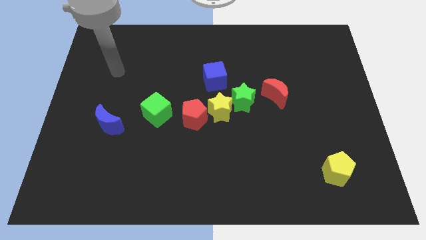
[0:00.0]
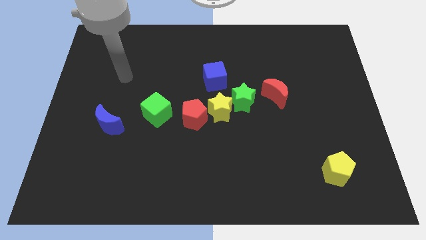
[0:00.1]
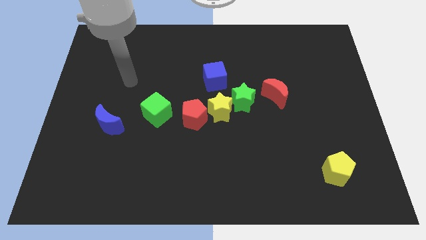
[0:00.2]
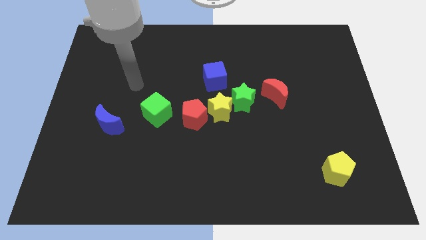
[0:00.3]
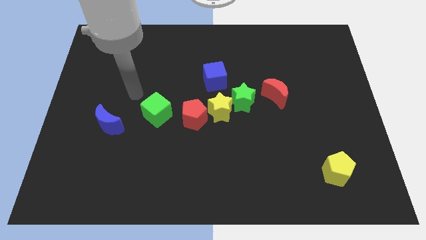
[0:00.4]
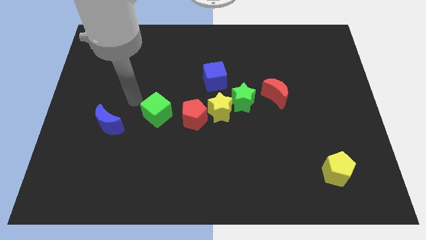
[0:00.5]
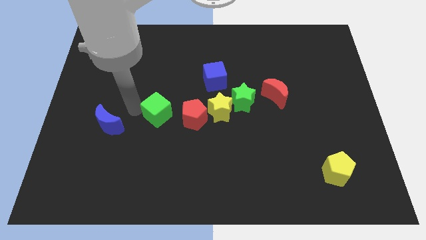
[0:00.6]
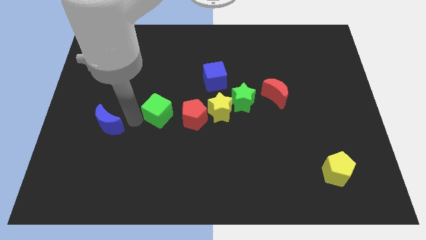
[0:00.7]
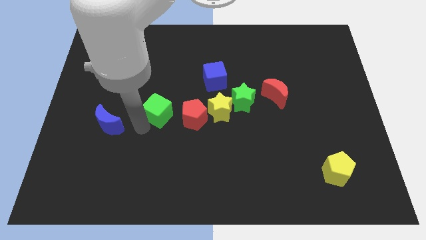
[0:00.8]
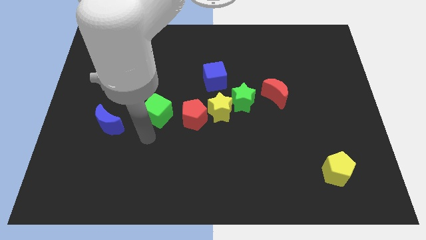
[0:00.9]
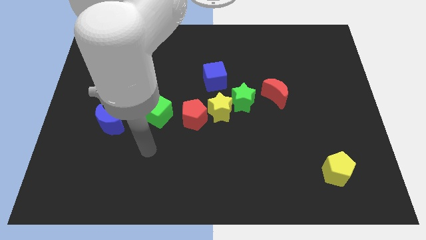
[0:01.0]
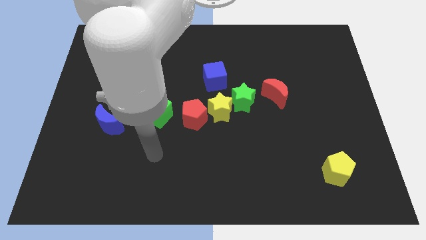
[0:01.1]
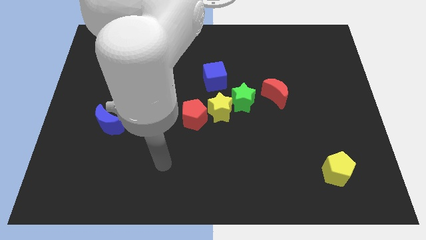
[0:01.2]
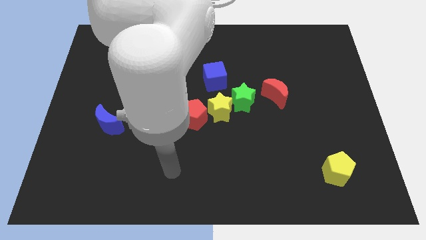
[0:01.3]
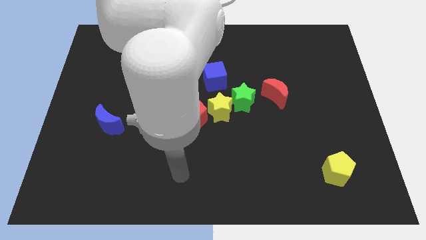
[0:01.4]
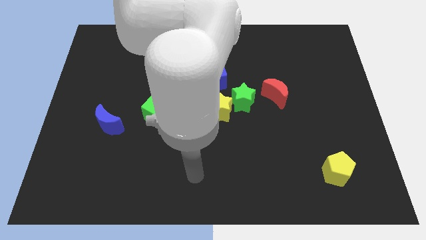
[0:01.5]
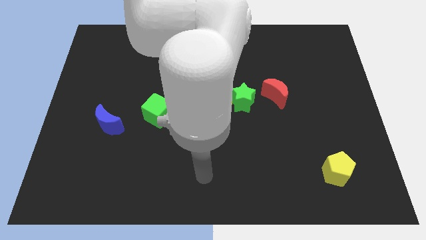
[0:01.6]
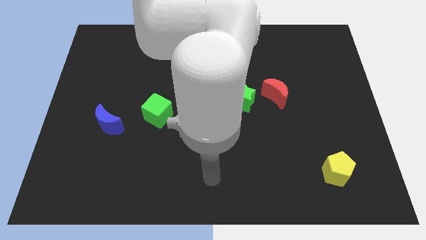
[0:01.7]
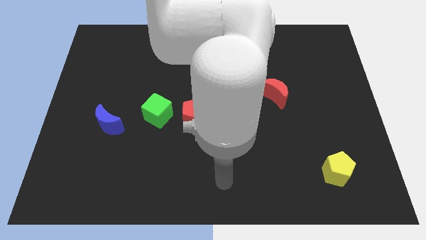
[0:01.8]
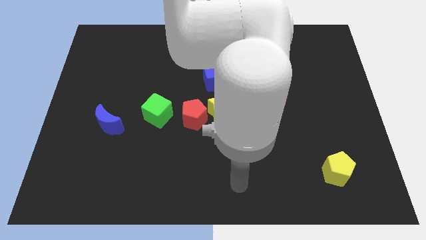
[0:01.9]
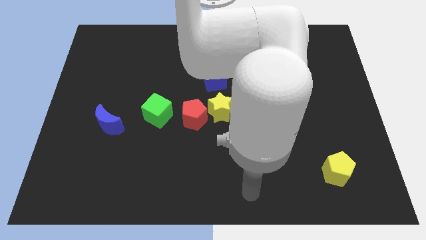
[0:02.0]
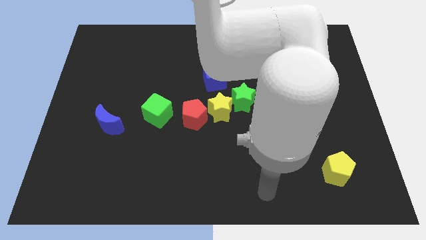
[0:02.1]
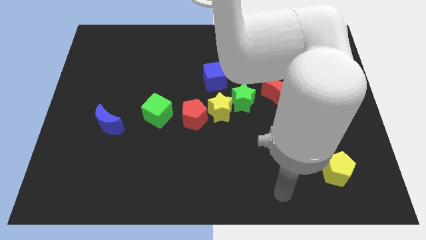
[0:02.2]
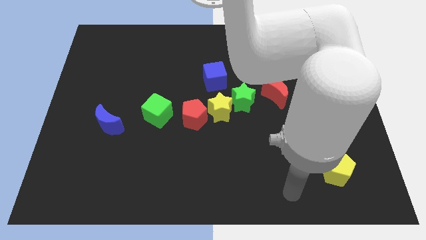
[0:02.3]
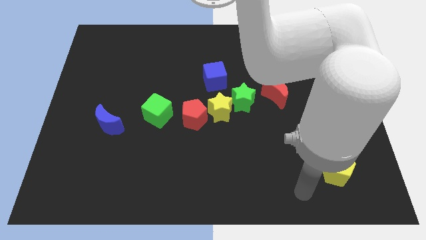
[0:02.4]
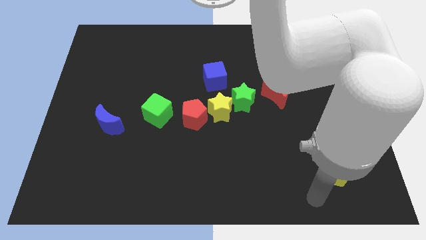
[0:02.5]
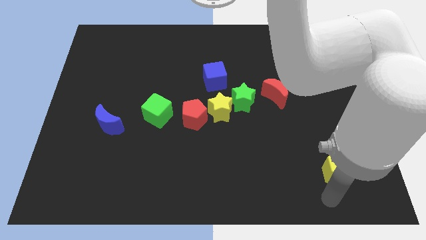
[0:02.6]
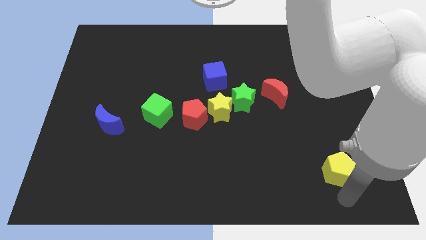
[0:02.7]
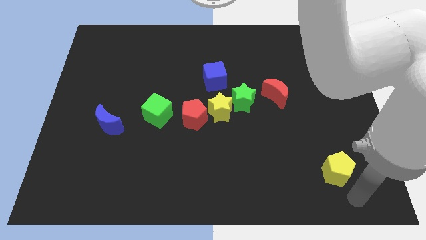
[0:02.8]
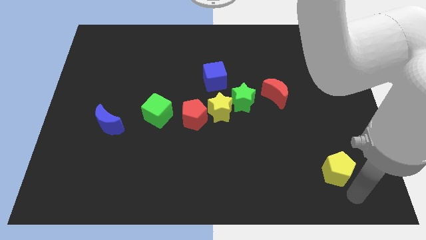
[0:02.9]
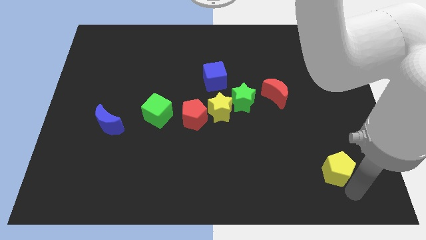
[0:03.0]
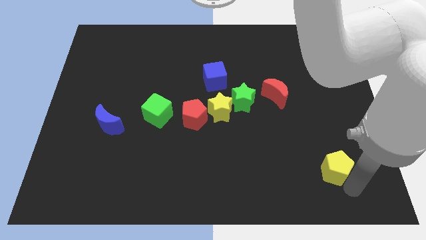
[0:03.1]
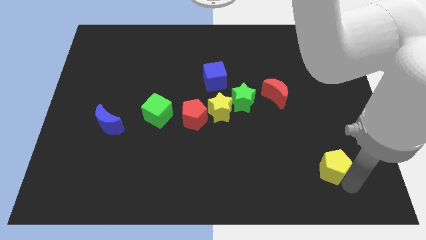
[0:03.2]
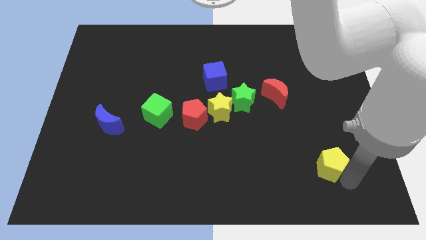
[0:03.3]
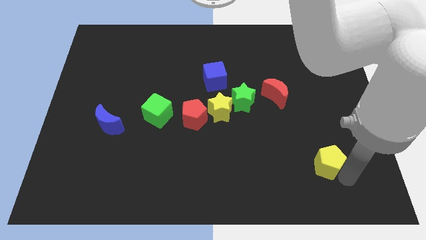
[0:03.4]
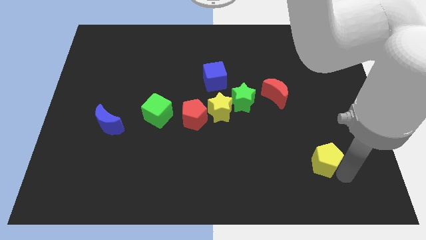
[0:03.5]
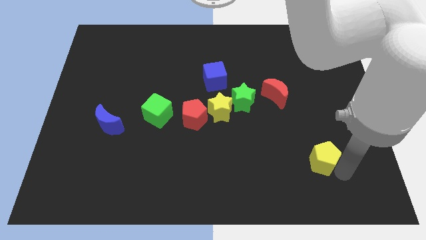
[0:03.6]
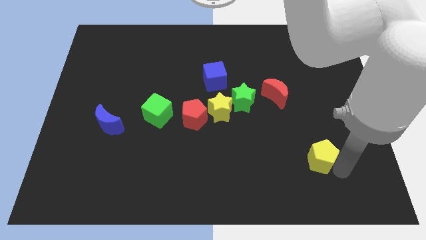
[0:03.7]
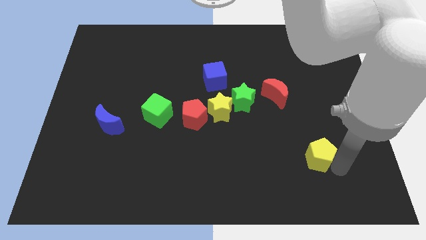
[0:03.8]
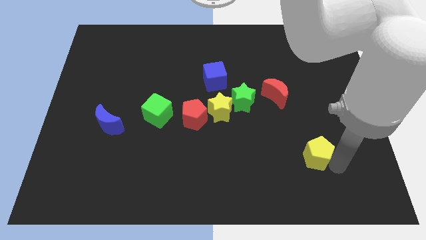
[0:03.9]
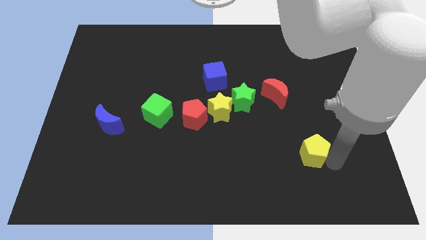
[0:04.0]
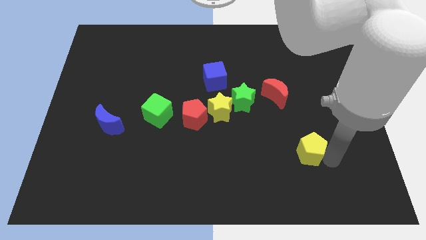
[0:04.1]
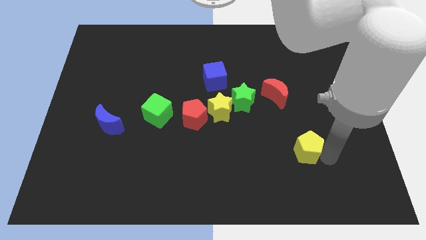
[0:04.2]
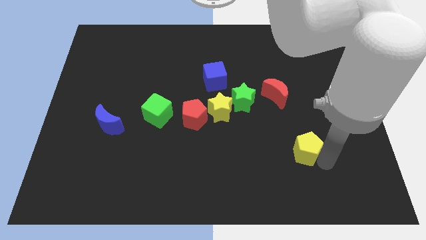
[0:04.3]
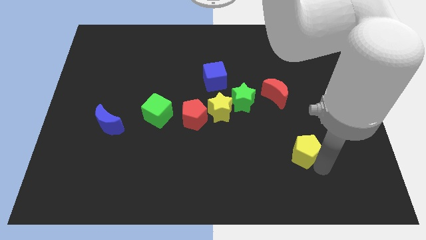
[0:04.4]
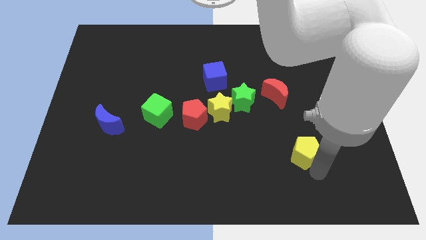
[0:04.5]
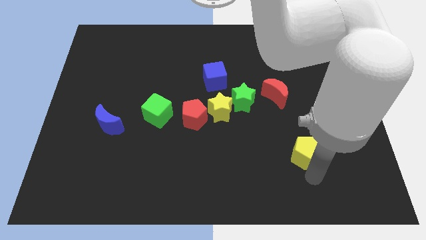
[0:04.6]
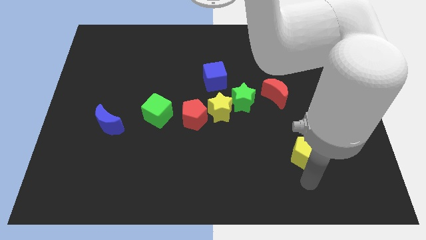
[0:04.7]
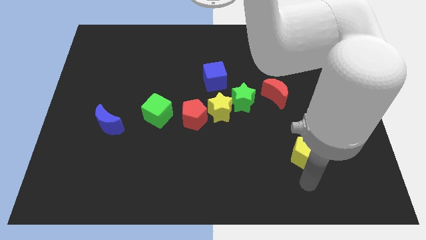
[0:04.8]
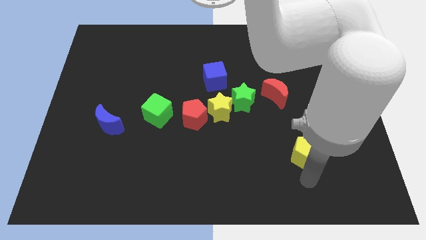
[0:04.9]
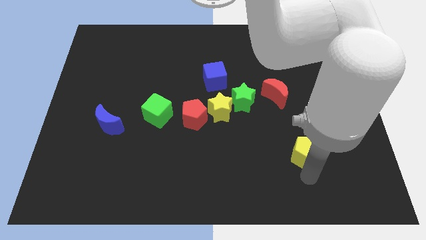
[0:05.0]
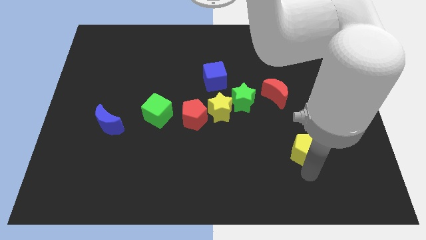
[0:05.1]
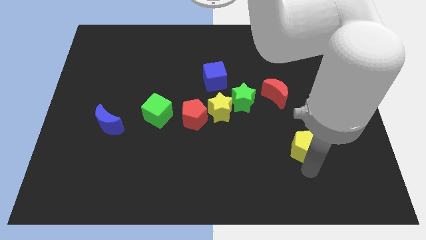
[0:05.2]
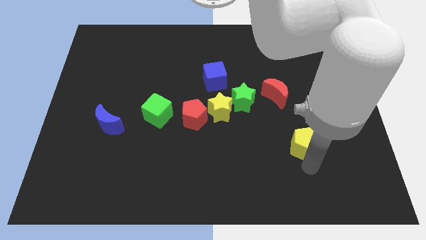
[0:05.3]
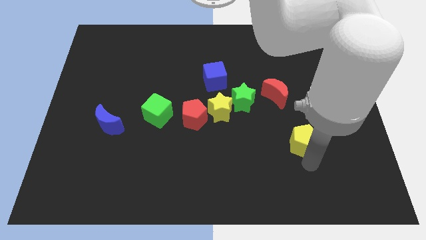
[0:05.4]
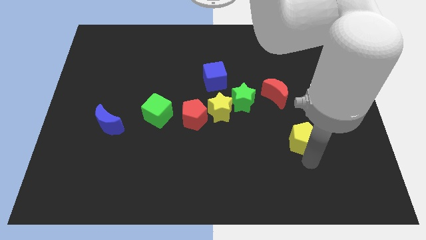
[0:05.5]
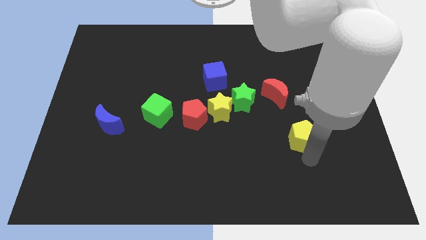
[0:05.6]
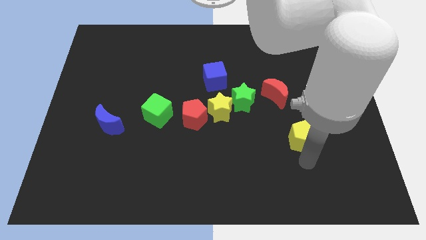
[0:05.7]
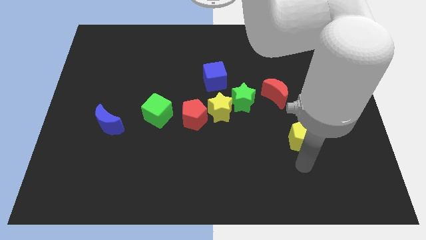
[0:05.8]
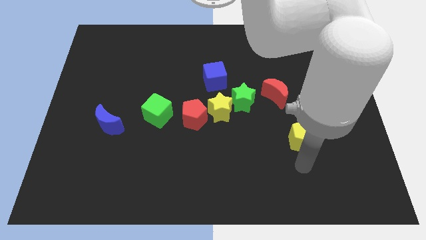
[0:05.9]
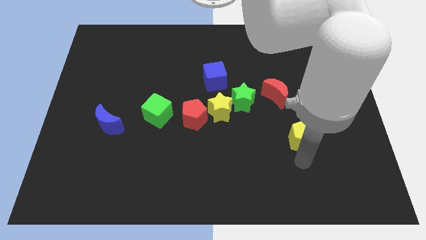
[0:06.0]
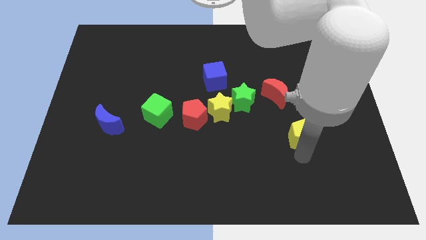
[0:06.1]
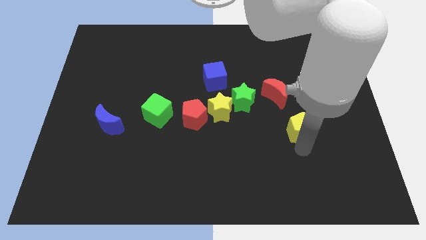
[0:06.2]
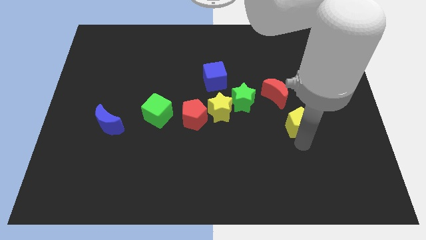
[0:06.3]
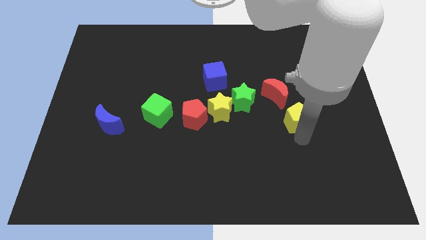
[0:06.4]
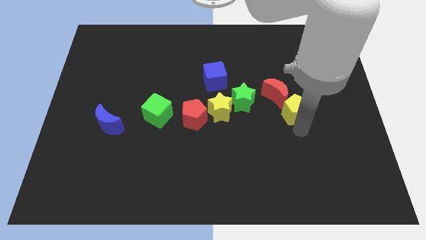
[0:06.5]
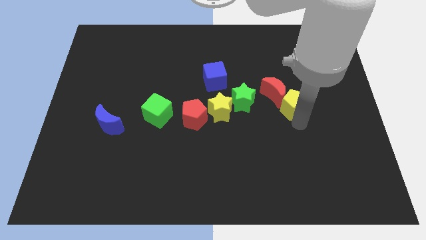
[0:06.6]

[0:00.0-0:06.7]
put the yellow pentagon to the red moon

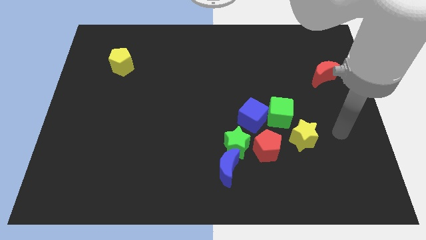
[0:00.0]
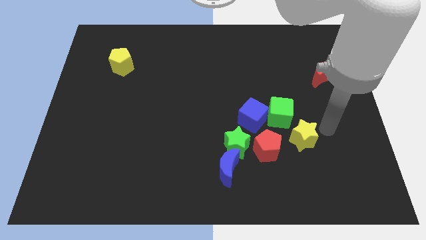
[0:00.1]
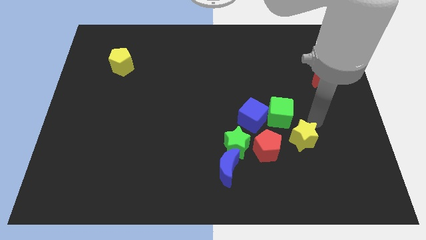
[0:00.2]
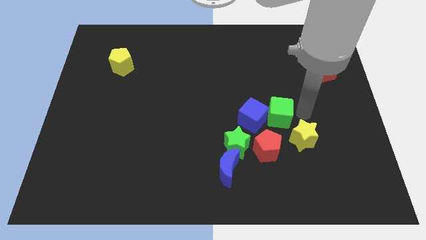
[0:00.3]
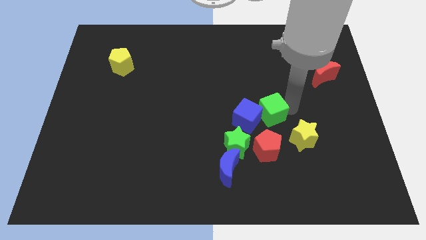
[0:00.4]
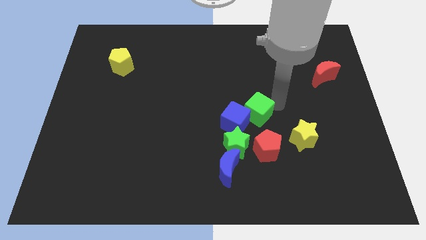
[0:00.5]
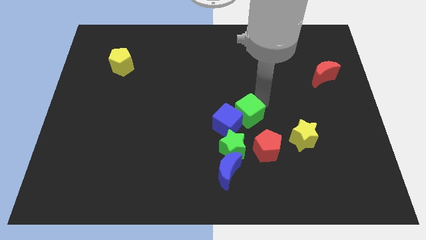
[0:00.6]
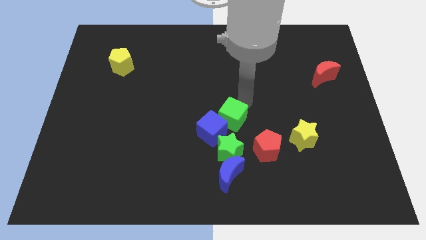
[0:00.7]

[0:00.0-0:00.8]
put the blue cube close to the green star
